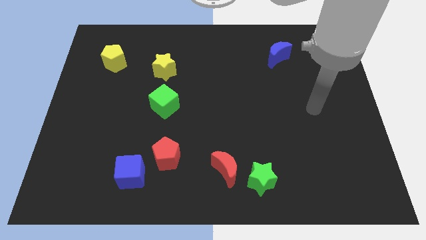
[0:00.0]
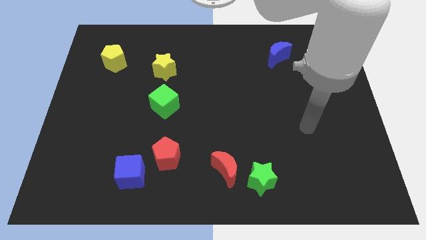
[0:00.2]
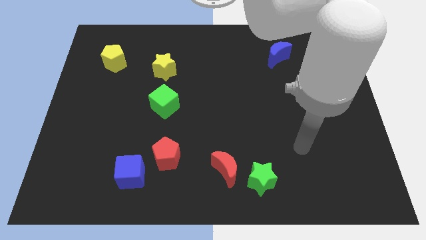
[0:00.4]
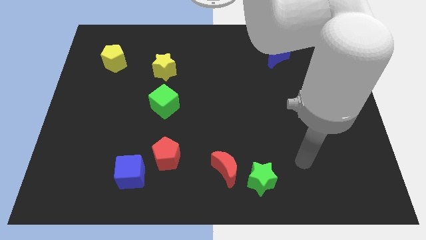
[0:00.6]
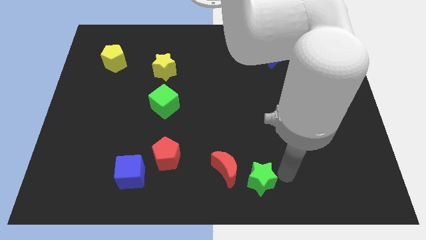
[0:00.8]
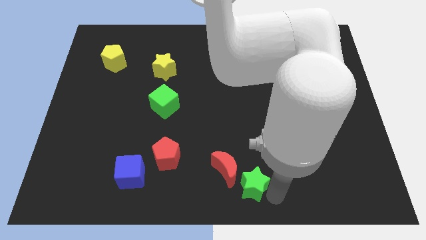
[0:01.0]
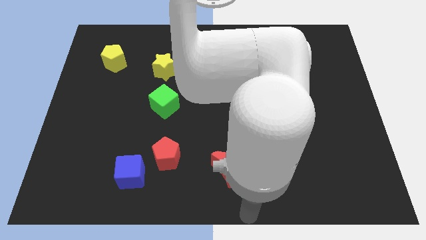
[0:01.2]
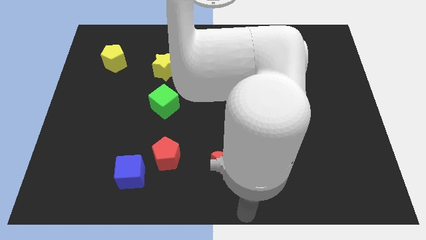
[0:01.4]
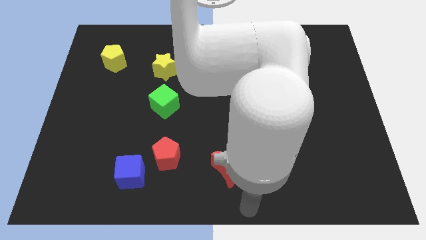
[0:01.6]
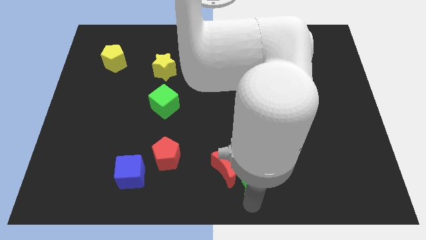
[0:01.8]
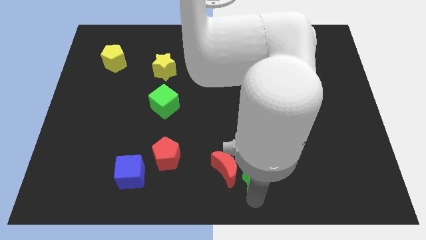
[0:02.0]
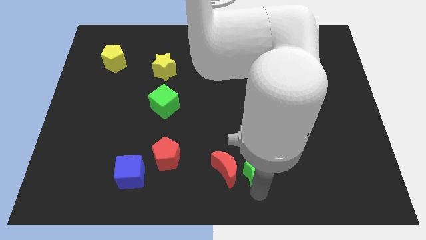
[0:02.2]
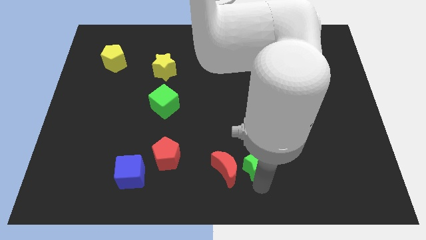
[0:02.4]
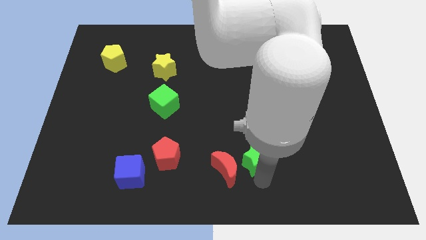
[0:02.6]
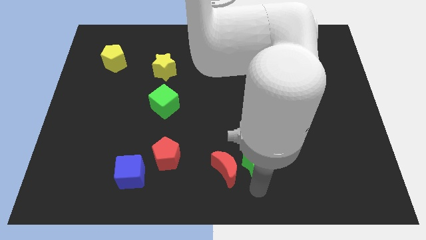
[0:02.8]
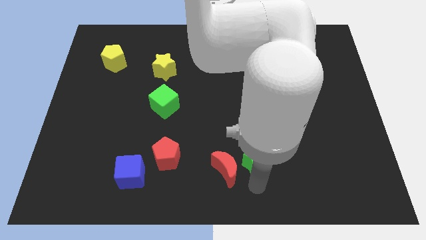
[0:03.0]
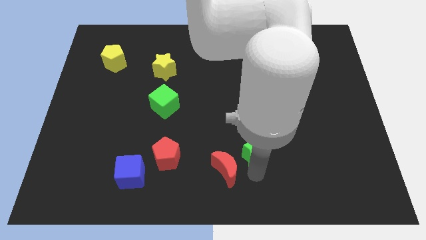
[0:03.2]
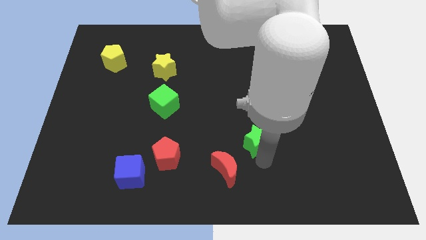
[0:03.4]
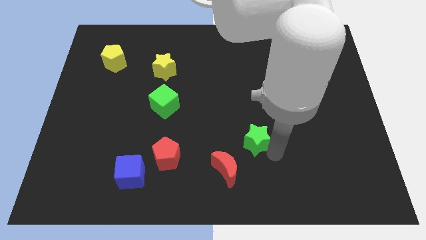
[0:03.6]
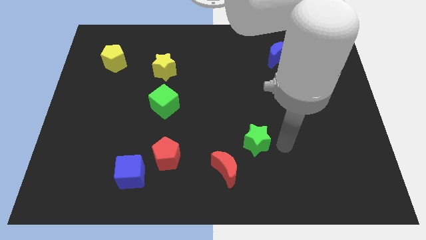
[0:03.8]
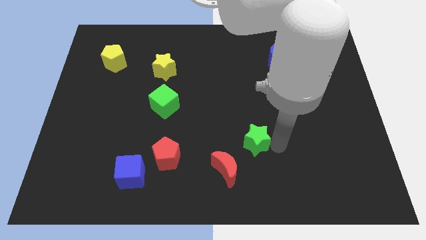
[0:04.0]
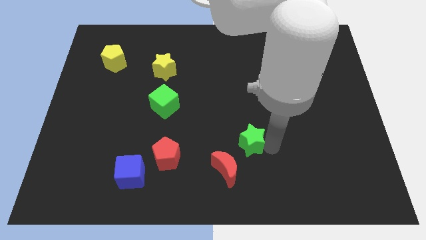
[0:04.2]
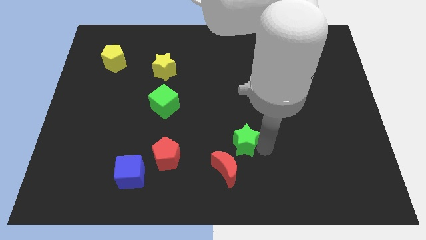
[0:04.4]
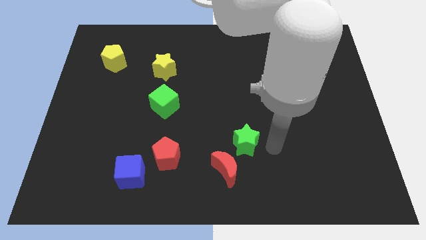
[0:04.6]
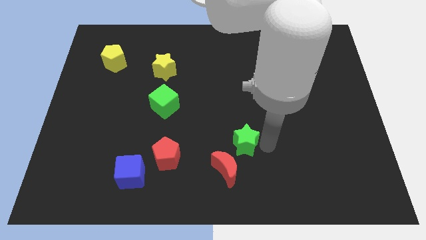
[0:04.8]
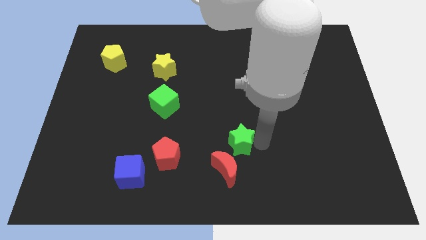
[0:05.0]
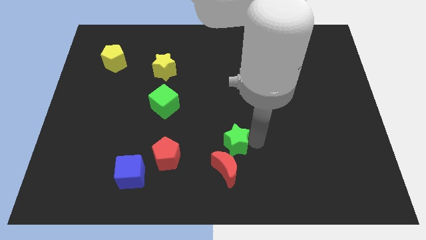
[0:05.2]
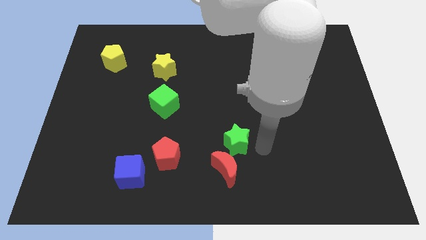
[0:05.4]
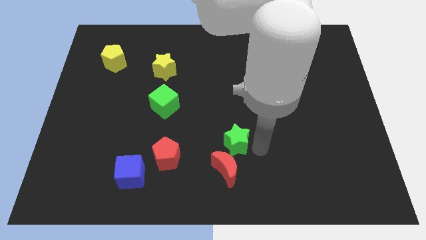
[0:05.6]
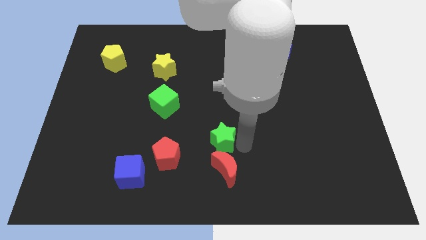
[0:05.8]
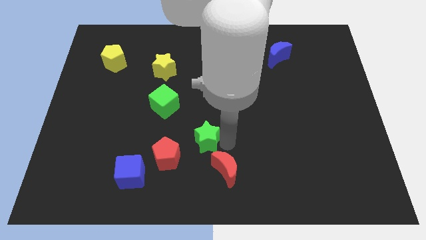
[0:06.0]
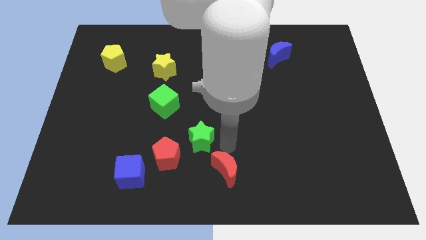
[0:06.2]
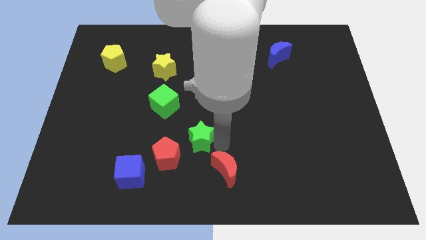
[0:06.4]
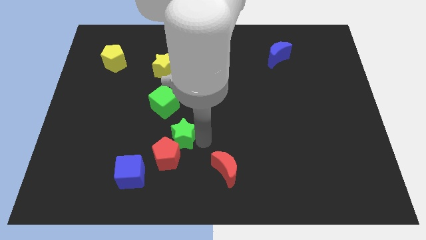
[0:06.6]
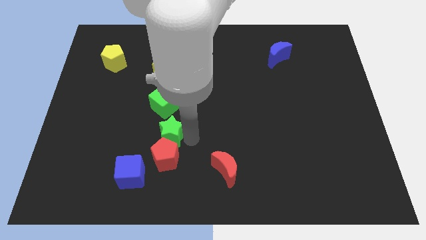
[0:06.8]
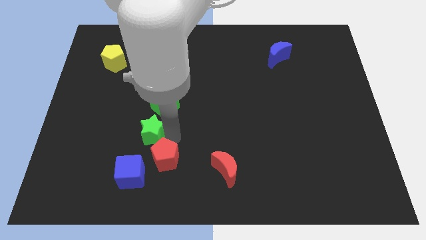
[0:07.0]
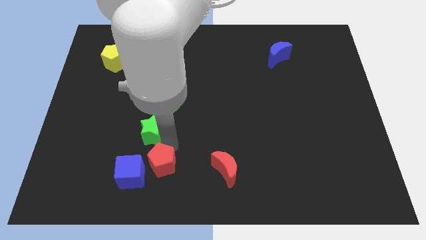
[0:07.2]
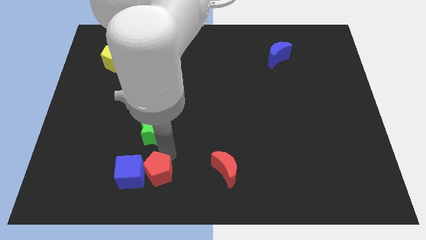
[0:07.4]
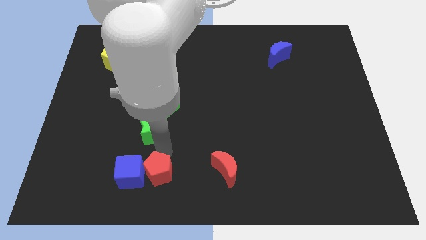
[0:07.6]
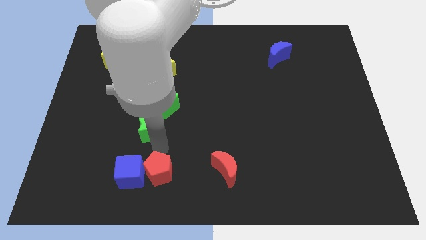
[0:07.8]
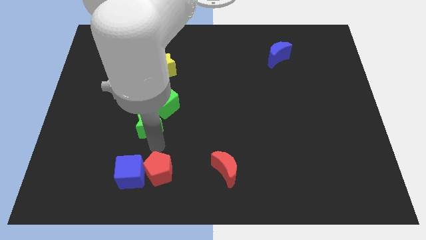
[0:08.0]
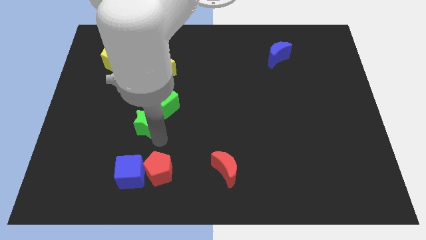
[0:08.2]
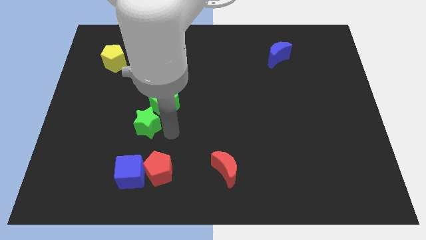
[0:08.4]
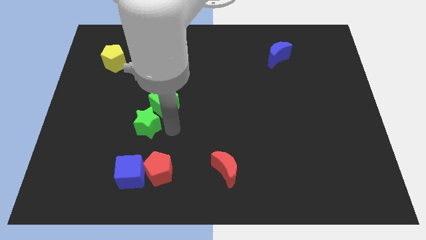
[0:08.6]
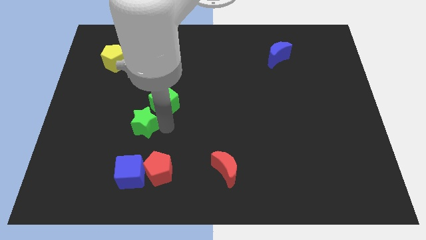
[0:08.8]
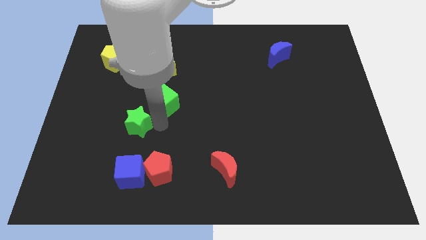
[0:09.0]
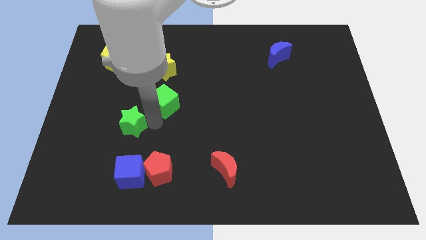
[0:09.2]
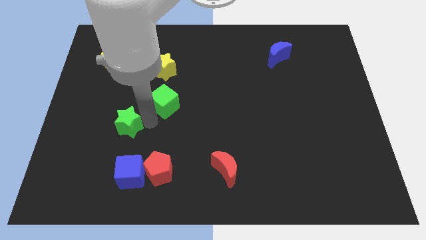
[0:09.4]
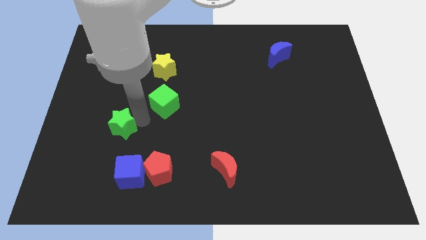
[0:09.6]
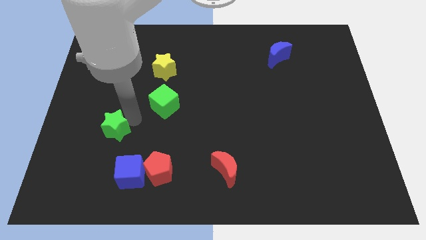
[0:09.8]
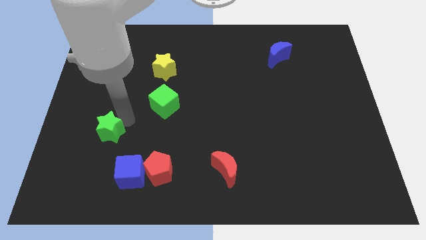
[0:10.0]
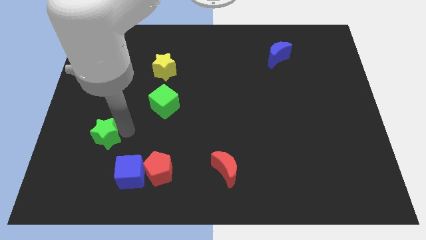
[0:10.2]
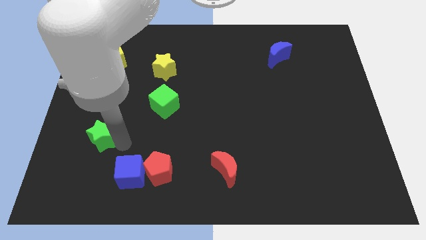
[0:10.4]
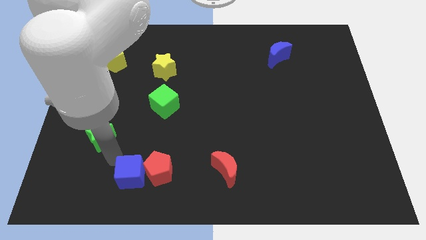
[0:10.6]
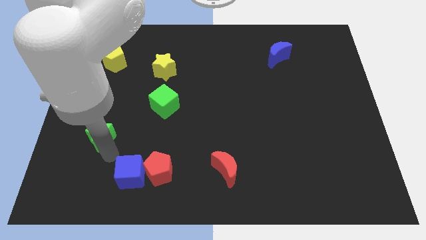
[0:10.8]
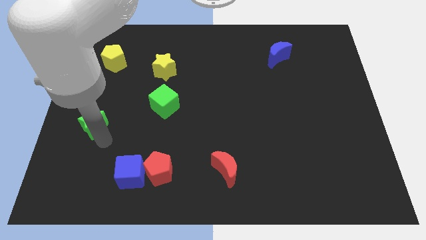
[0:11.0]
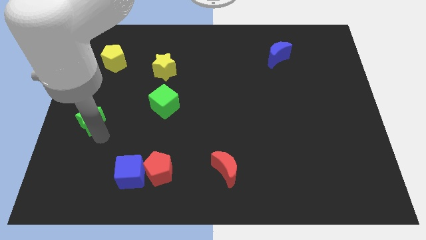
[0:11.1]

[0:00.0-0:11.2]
slide the green star to the left side of the board
